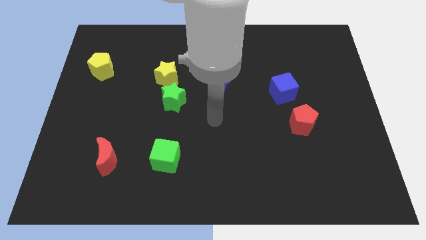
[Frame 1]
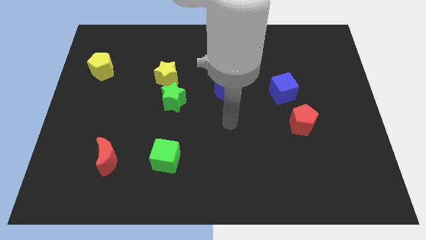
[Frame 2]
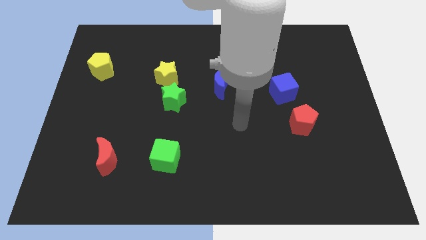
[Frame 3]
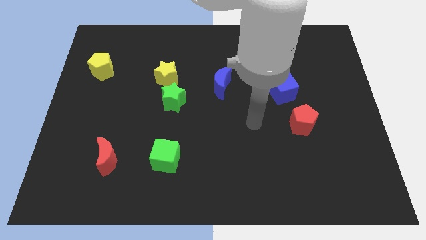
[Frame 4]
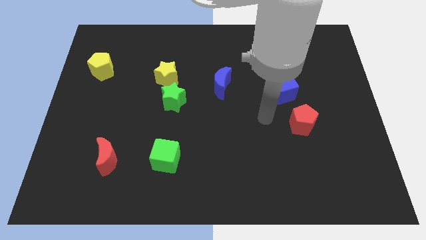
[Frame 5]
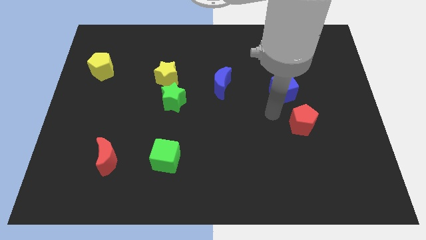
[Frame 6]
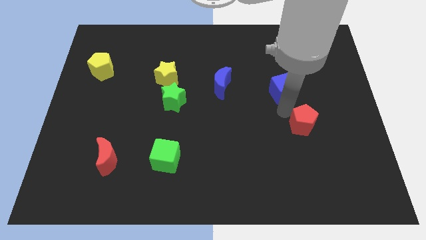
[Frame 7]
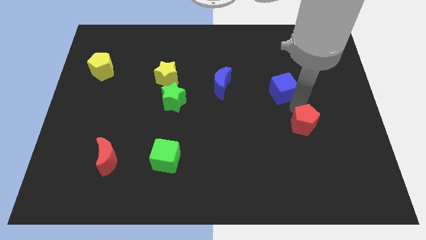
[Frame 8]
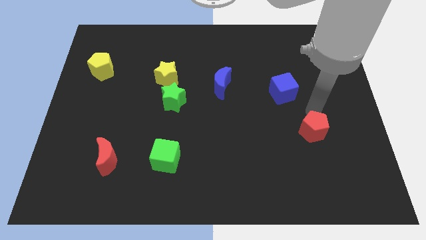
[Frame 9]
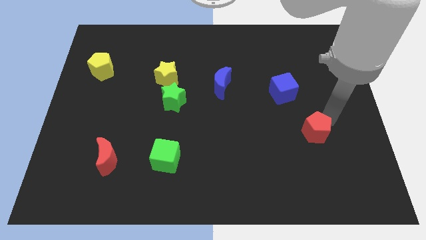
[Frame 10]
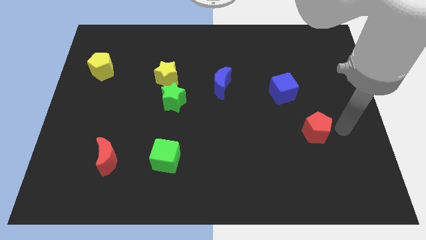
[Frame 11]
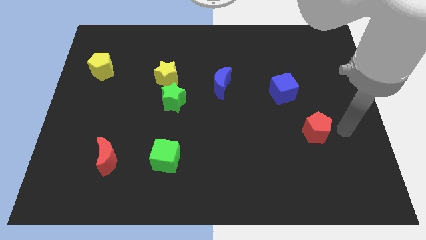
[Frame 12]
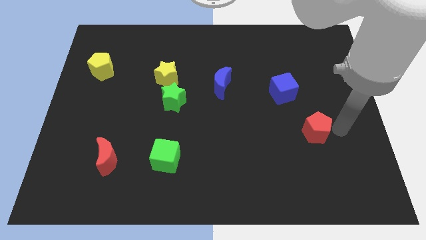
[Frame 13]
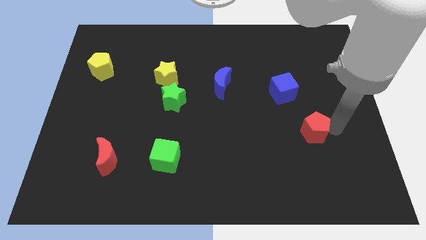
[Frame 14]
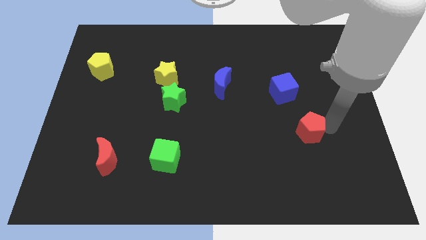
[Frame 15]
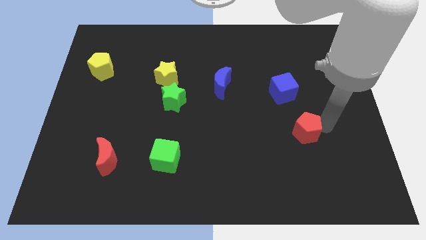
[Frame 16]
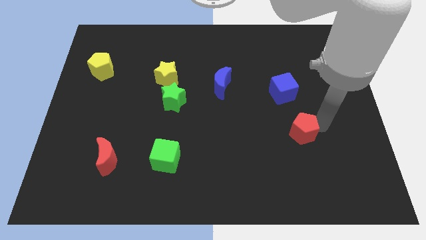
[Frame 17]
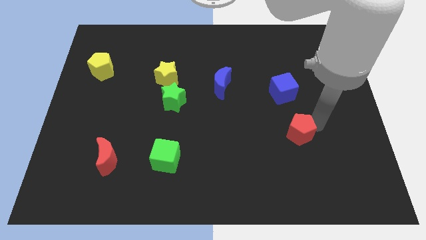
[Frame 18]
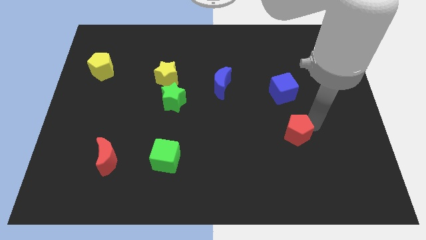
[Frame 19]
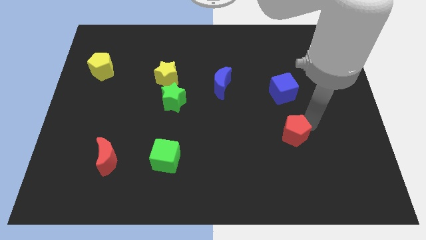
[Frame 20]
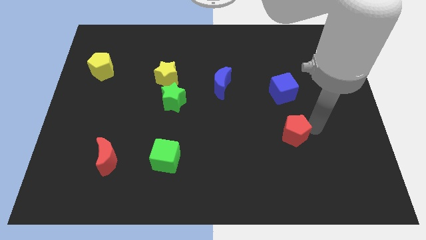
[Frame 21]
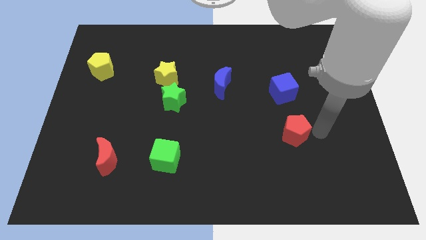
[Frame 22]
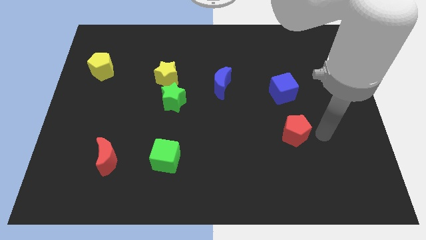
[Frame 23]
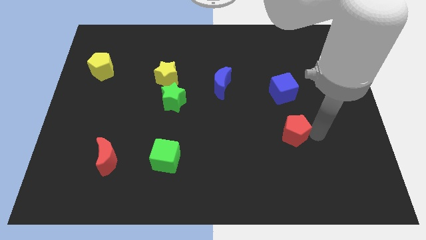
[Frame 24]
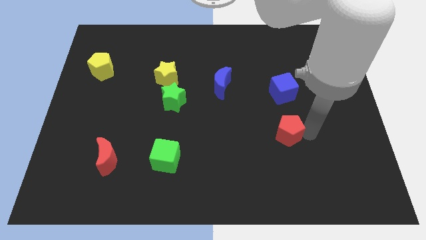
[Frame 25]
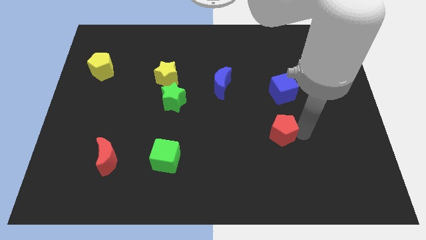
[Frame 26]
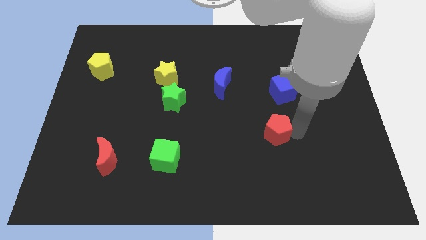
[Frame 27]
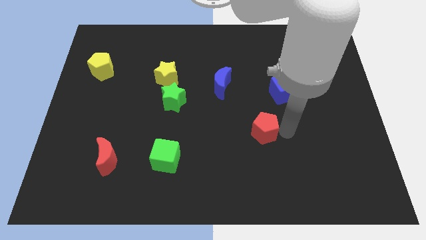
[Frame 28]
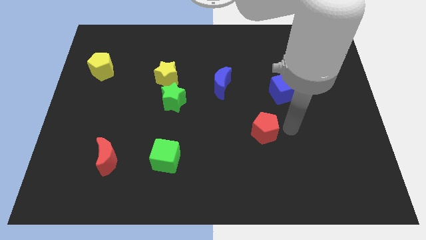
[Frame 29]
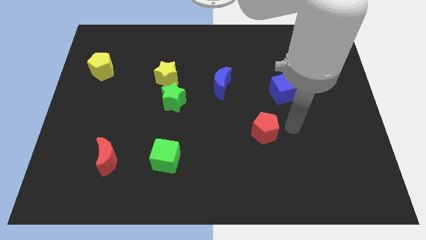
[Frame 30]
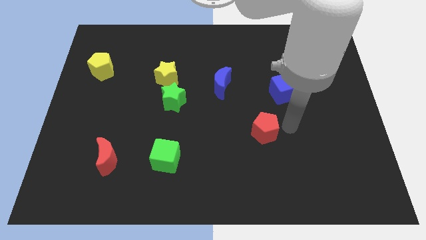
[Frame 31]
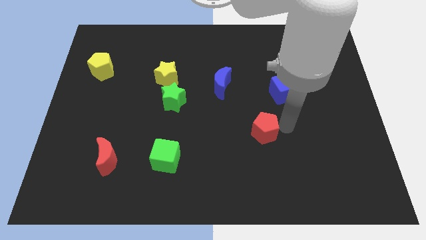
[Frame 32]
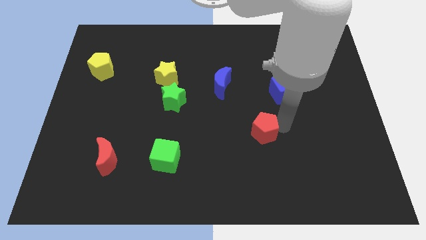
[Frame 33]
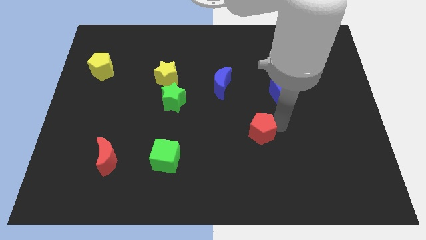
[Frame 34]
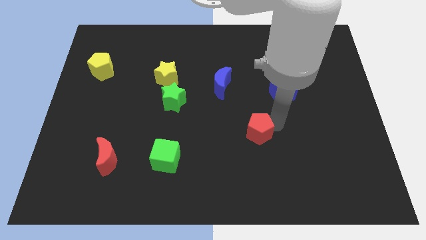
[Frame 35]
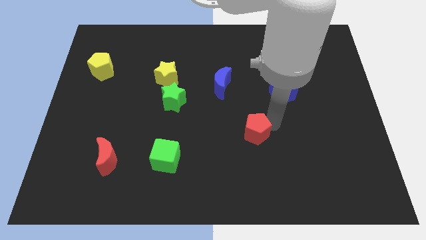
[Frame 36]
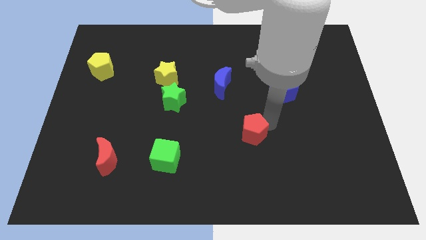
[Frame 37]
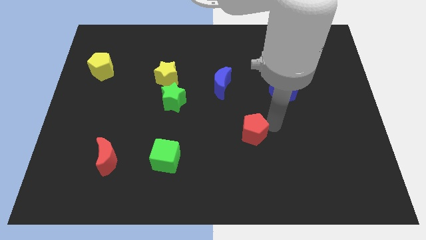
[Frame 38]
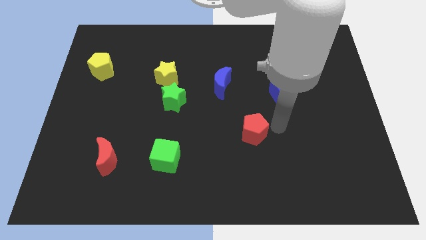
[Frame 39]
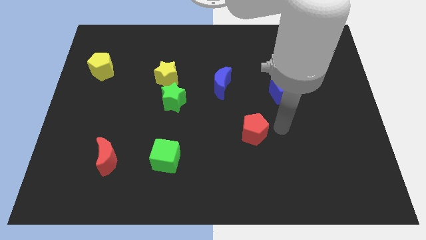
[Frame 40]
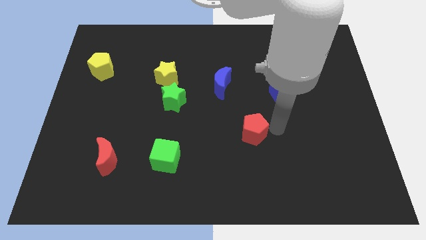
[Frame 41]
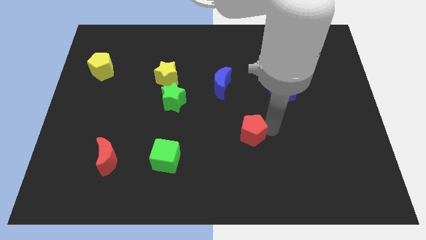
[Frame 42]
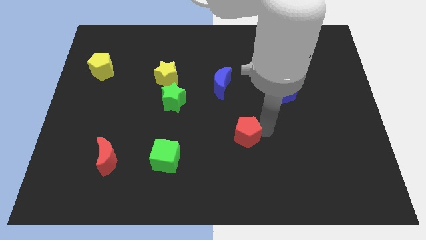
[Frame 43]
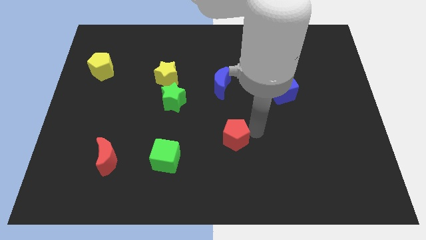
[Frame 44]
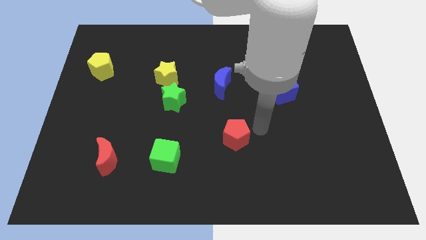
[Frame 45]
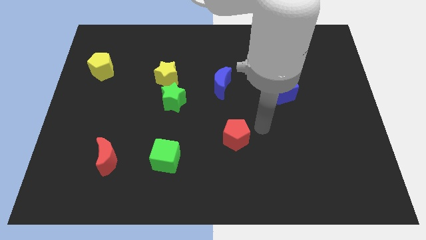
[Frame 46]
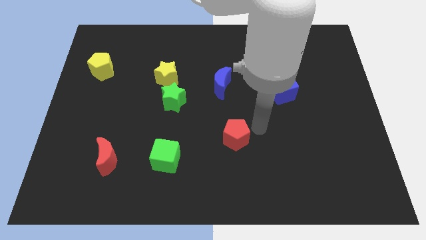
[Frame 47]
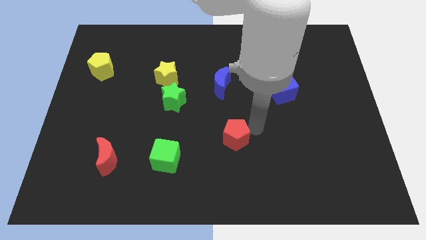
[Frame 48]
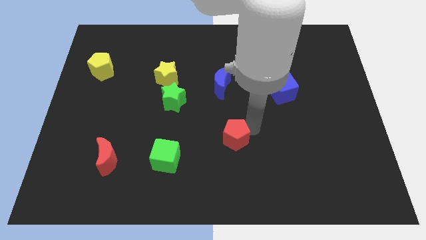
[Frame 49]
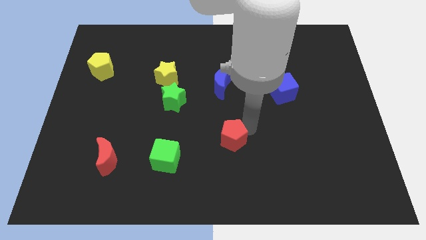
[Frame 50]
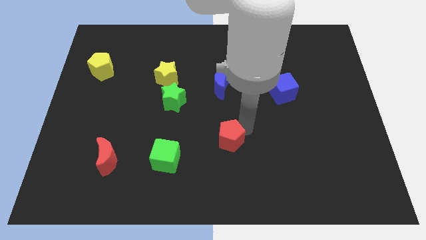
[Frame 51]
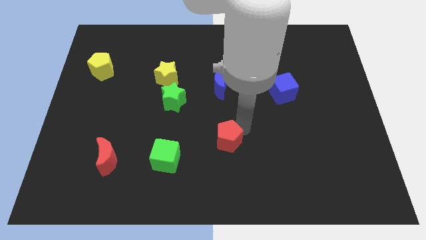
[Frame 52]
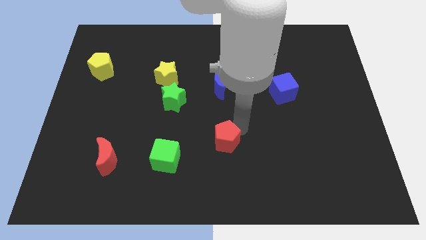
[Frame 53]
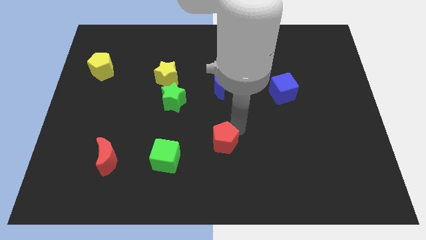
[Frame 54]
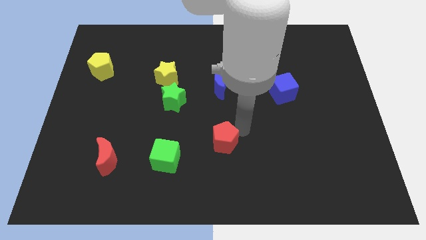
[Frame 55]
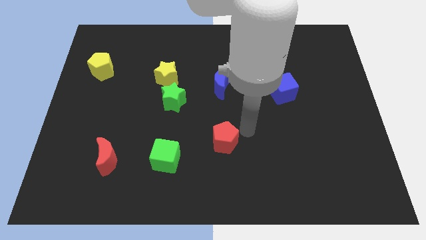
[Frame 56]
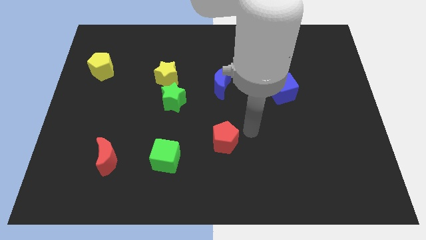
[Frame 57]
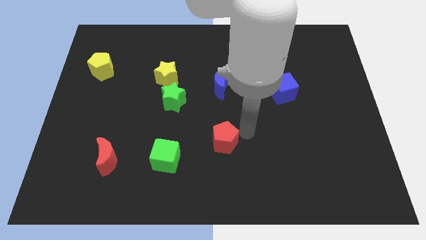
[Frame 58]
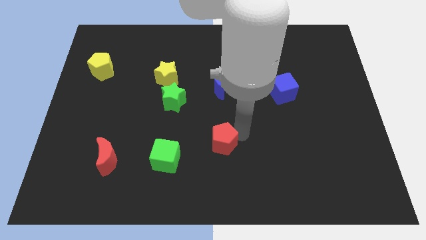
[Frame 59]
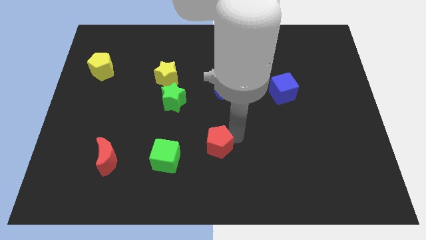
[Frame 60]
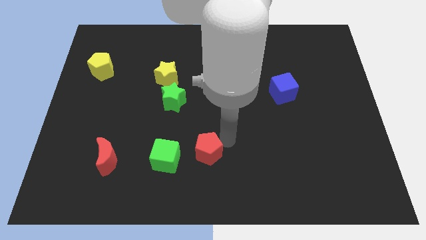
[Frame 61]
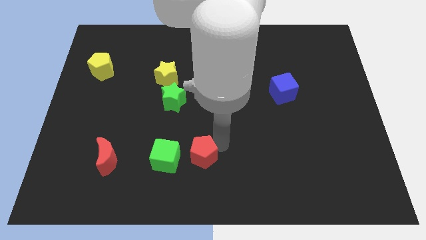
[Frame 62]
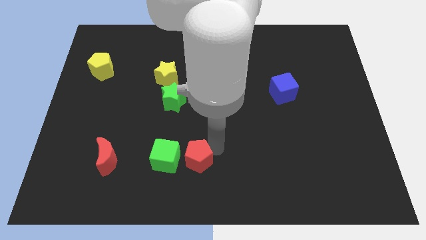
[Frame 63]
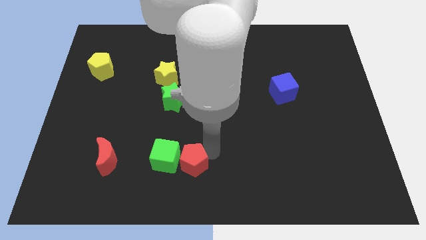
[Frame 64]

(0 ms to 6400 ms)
put the red pentagon to the green cube

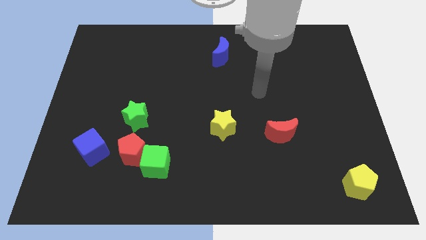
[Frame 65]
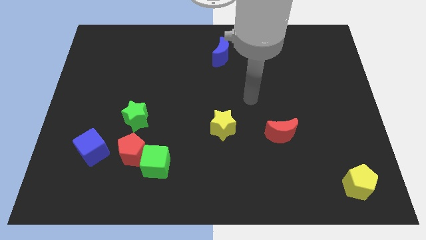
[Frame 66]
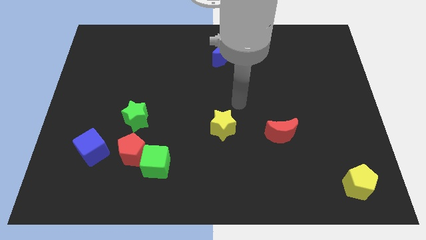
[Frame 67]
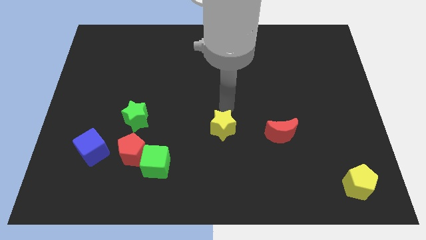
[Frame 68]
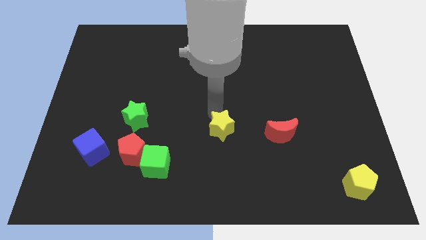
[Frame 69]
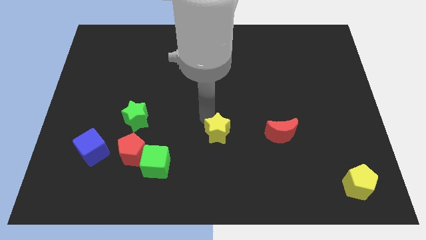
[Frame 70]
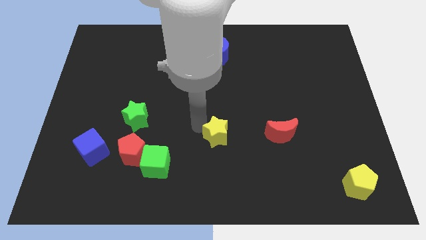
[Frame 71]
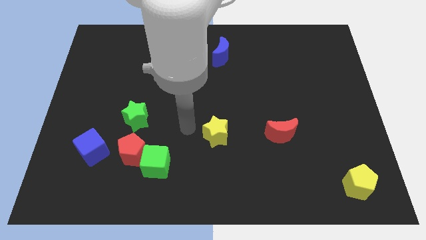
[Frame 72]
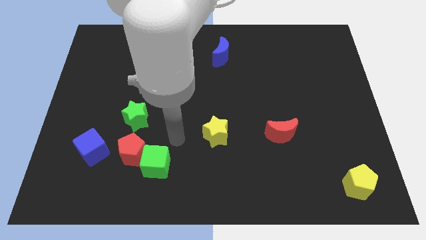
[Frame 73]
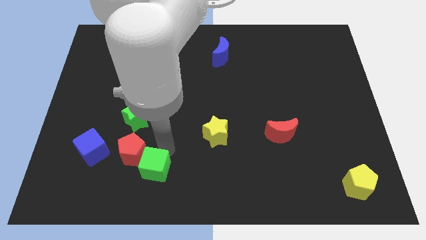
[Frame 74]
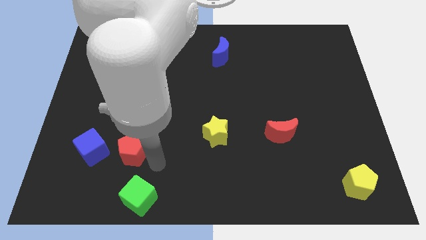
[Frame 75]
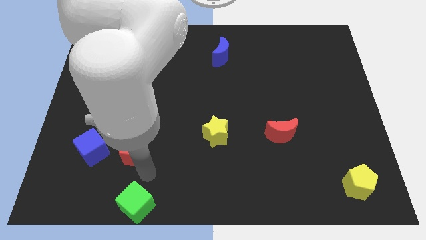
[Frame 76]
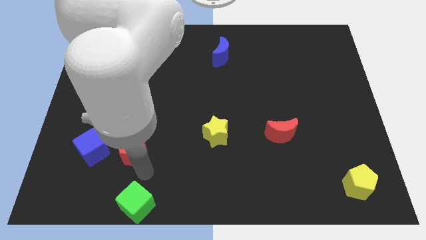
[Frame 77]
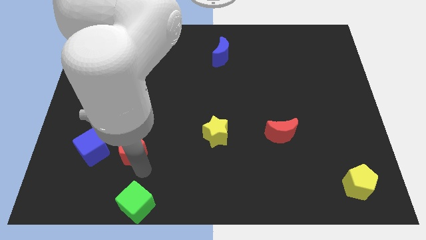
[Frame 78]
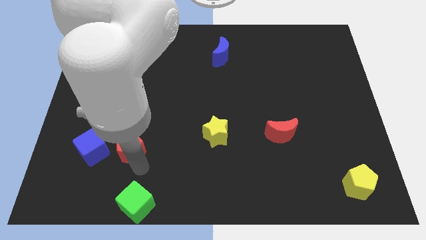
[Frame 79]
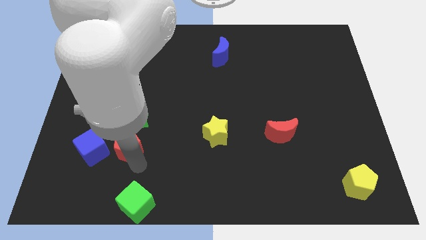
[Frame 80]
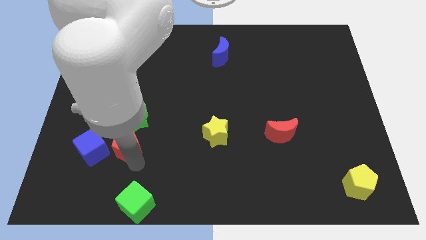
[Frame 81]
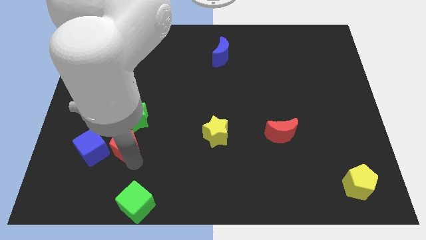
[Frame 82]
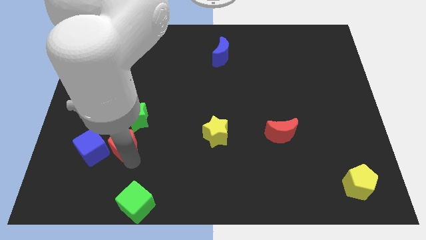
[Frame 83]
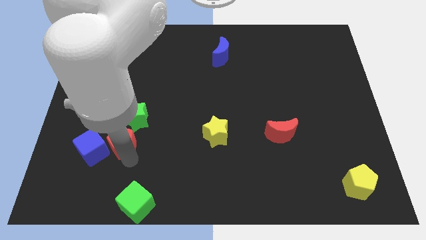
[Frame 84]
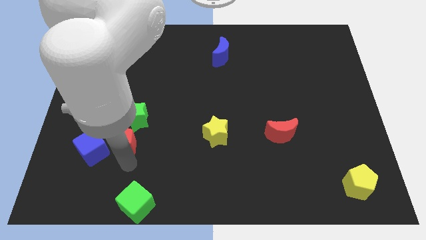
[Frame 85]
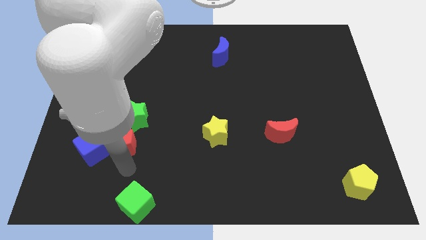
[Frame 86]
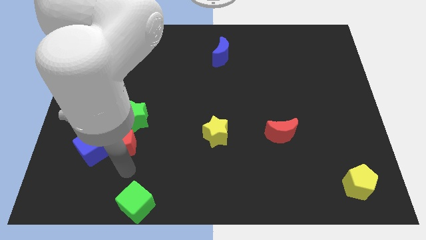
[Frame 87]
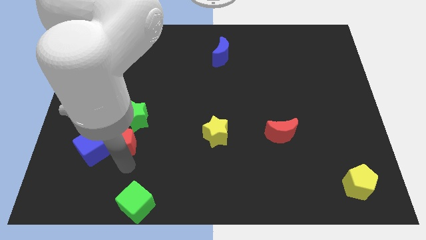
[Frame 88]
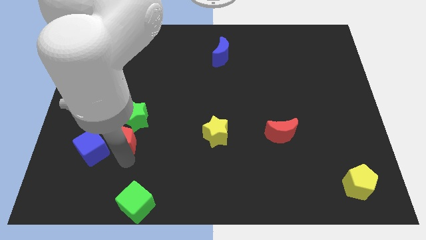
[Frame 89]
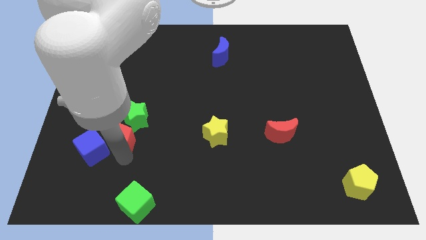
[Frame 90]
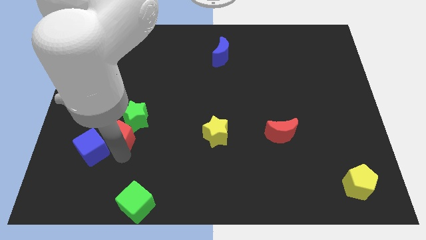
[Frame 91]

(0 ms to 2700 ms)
slide the red pentagon towards the green star
